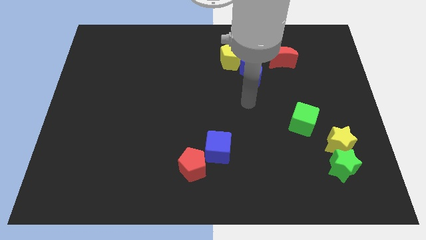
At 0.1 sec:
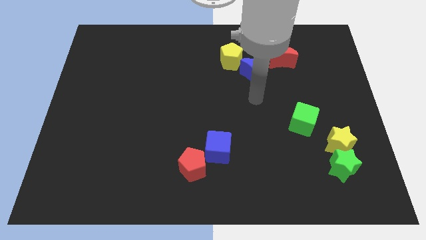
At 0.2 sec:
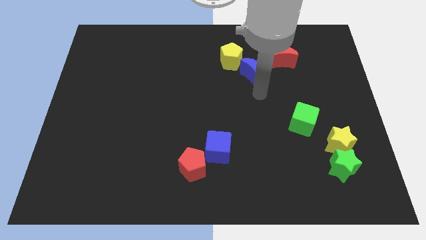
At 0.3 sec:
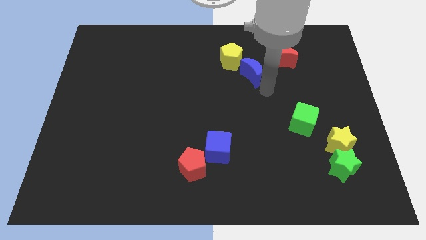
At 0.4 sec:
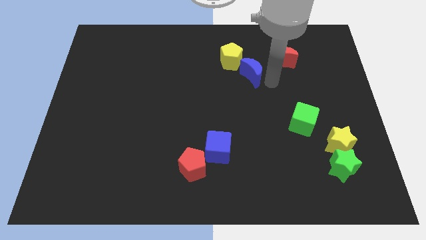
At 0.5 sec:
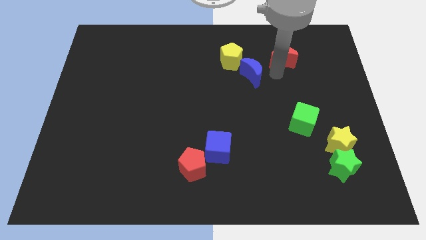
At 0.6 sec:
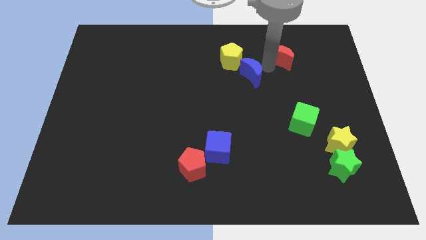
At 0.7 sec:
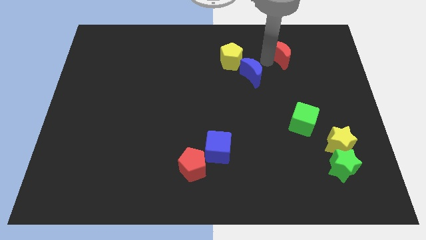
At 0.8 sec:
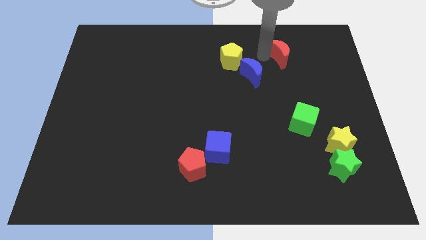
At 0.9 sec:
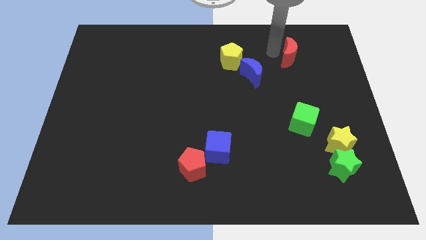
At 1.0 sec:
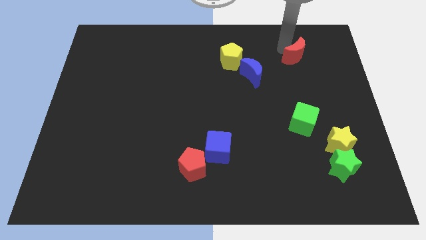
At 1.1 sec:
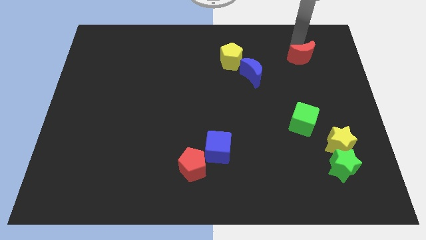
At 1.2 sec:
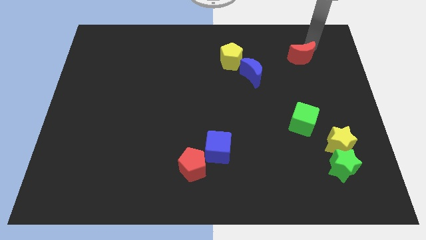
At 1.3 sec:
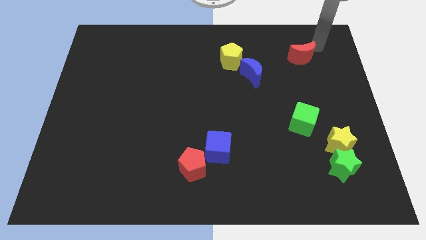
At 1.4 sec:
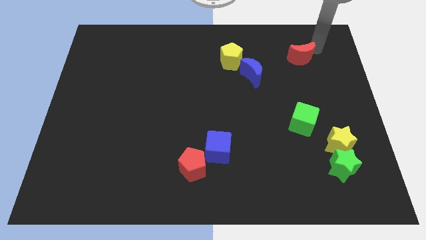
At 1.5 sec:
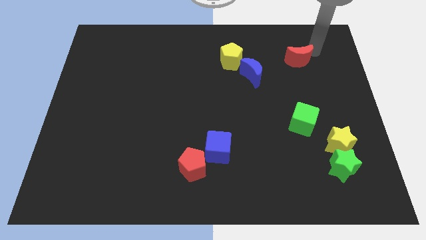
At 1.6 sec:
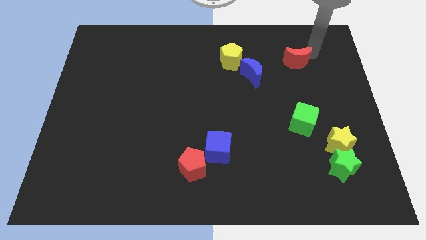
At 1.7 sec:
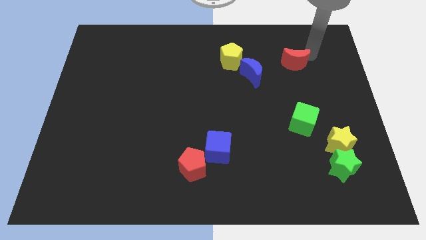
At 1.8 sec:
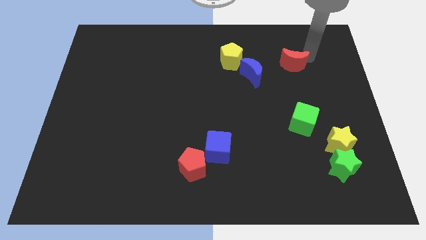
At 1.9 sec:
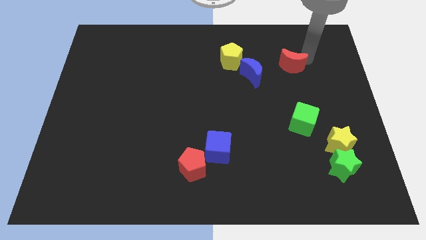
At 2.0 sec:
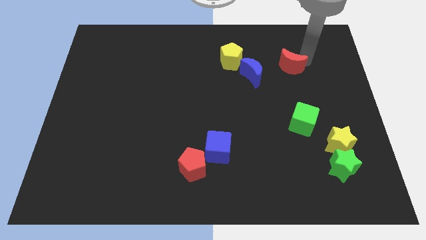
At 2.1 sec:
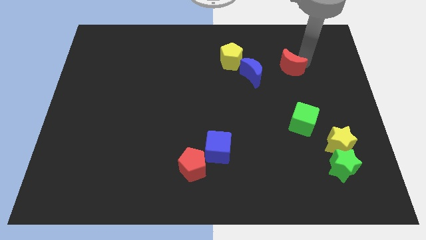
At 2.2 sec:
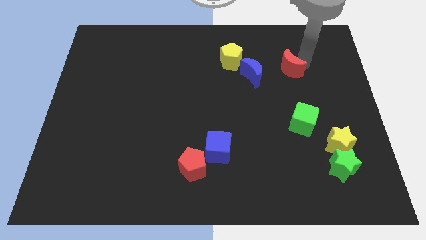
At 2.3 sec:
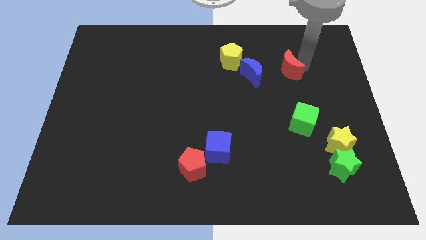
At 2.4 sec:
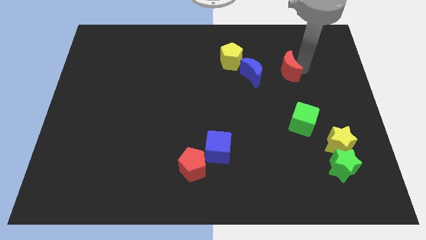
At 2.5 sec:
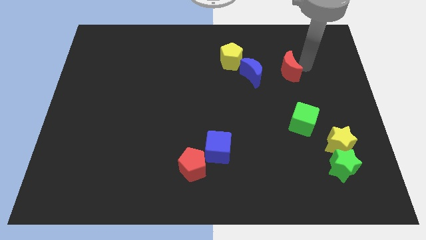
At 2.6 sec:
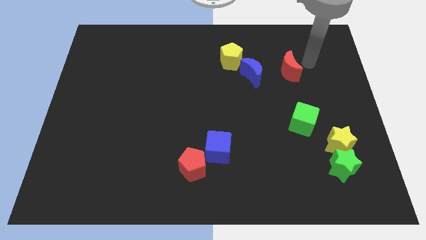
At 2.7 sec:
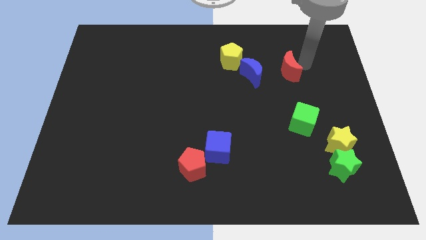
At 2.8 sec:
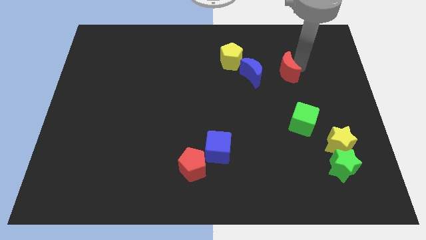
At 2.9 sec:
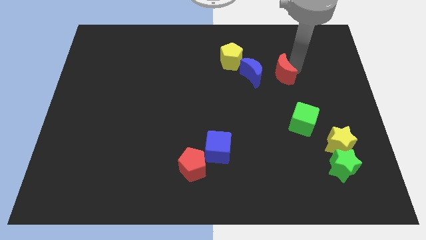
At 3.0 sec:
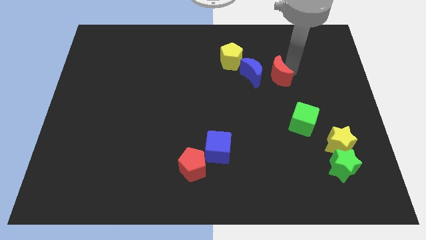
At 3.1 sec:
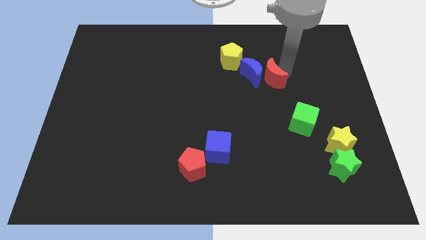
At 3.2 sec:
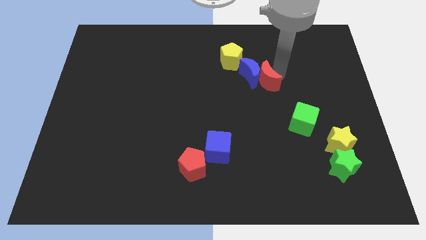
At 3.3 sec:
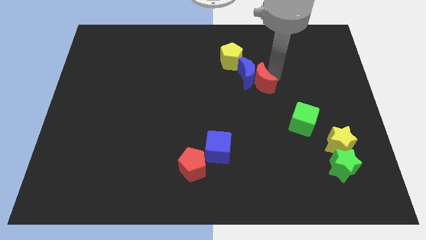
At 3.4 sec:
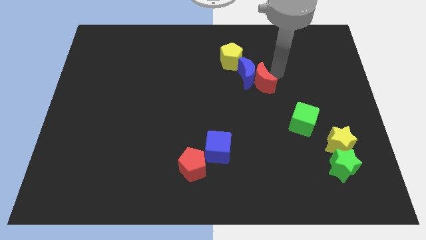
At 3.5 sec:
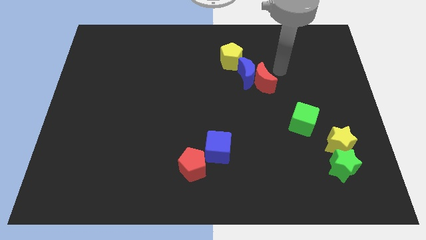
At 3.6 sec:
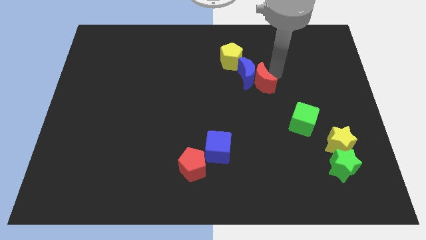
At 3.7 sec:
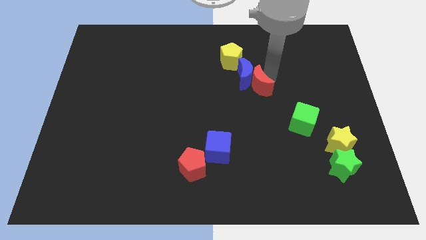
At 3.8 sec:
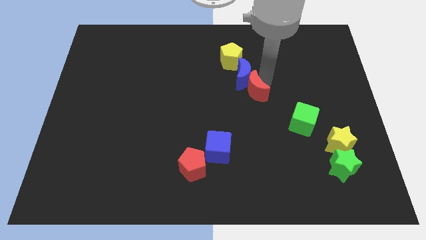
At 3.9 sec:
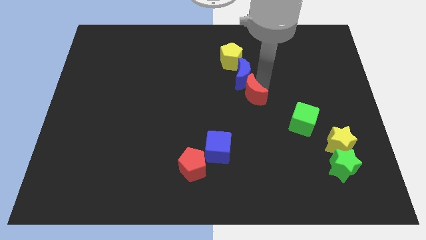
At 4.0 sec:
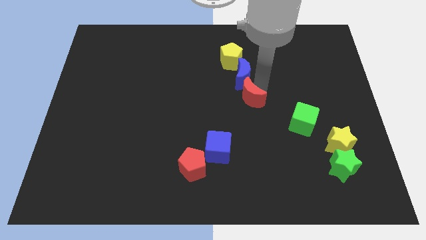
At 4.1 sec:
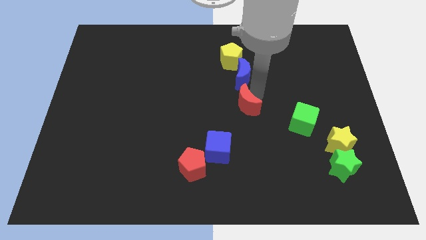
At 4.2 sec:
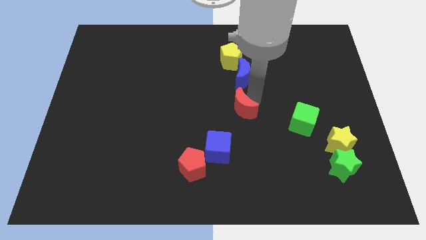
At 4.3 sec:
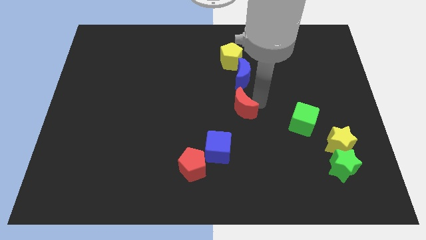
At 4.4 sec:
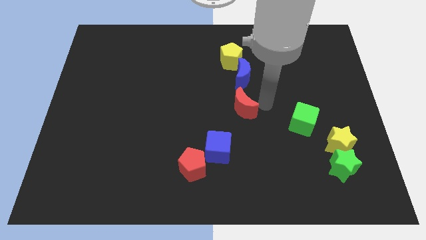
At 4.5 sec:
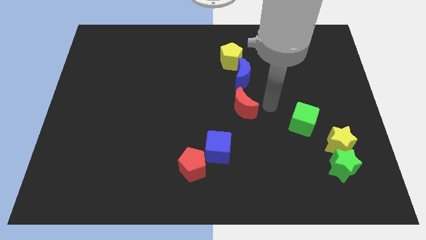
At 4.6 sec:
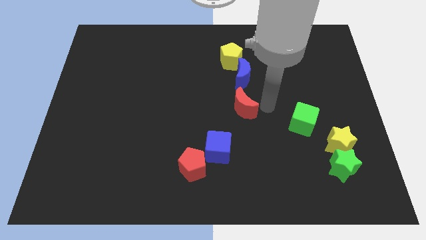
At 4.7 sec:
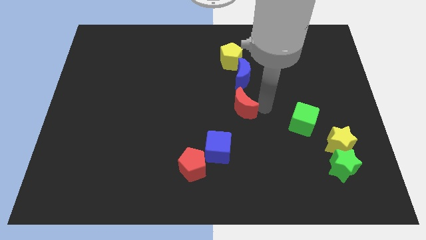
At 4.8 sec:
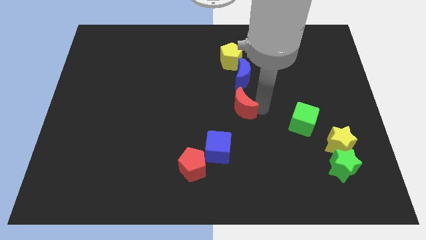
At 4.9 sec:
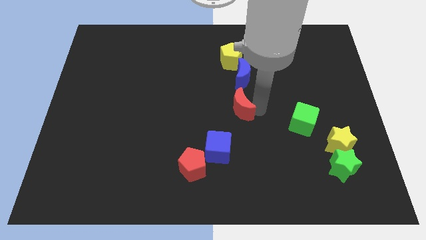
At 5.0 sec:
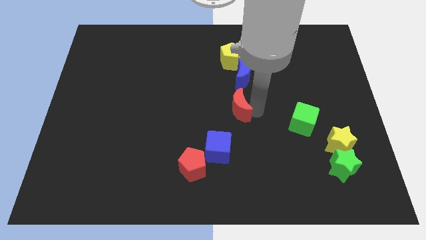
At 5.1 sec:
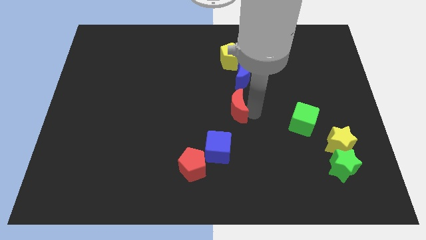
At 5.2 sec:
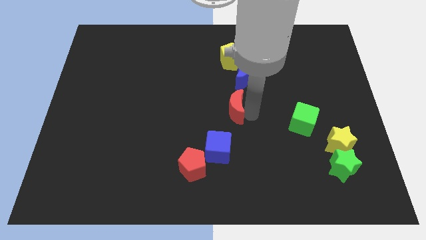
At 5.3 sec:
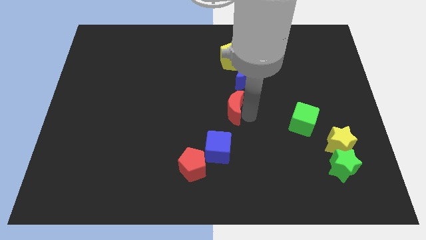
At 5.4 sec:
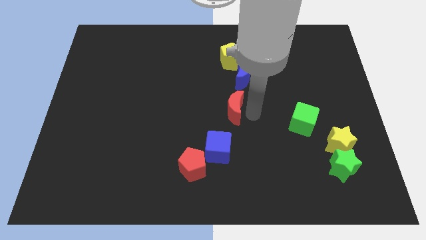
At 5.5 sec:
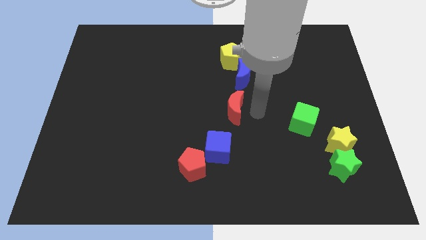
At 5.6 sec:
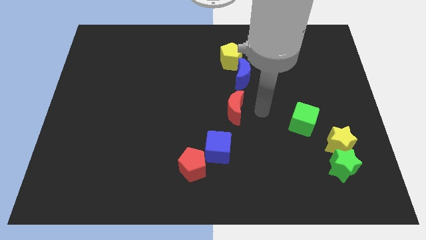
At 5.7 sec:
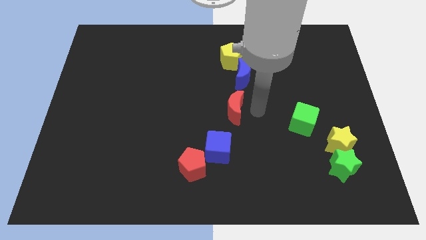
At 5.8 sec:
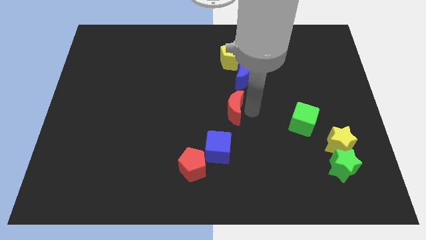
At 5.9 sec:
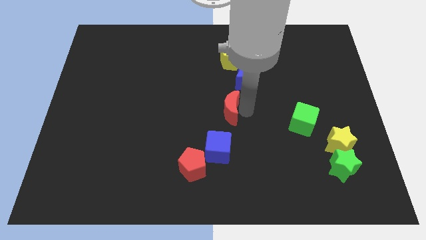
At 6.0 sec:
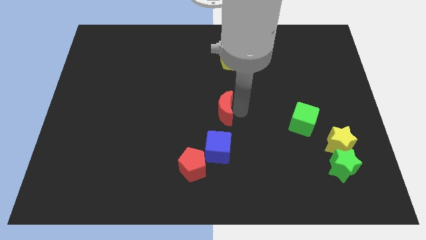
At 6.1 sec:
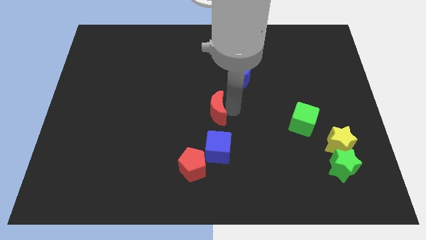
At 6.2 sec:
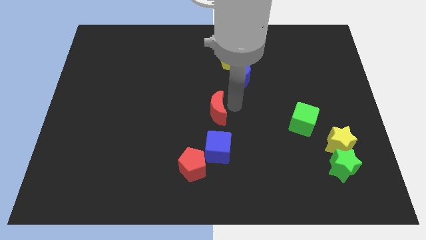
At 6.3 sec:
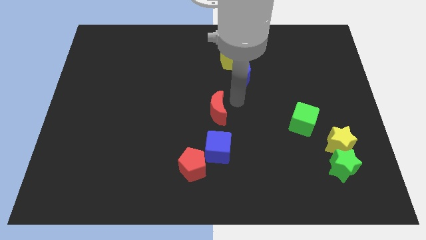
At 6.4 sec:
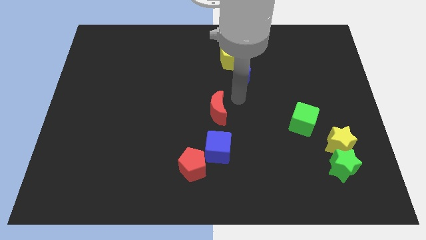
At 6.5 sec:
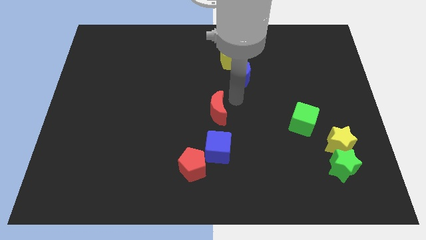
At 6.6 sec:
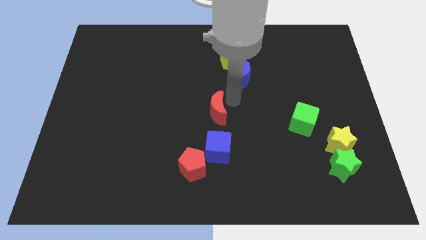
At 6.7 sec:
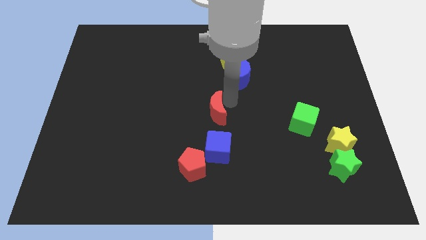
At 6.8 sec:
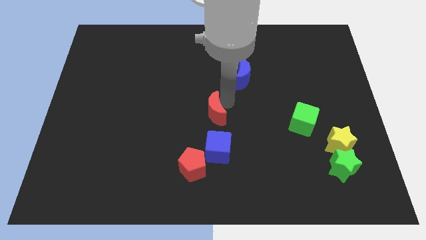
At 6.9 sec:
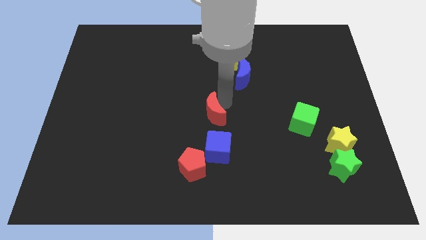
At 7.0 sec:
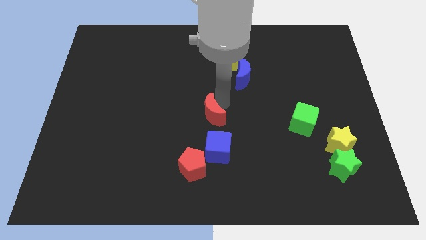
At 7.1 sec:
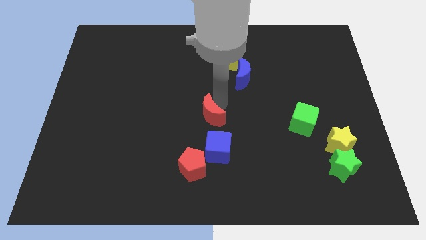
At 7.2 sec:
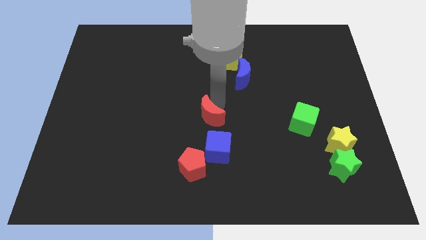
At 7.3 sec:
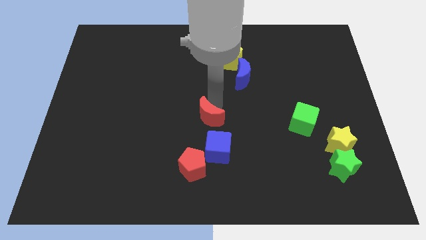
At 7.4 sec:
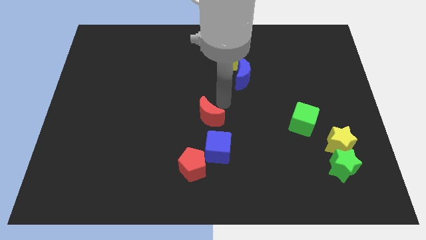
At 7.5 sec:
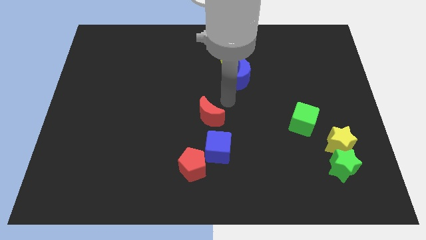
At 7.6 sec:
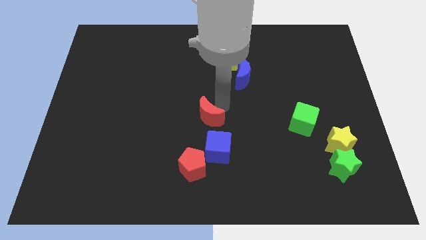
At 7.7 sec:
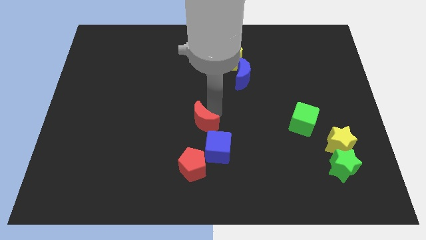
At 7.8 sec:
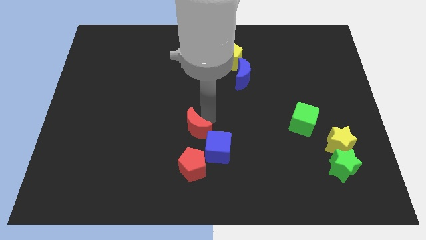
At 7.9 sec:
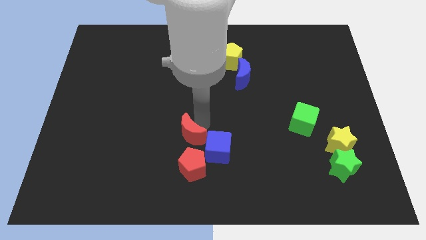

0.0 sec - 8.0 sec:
move the red moon to the left of the blue cube
